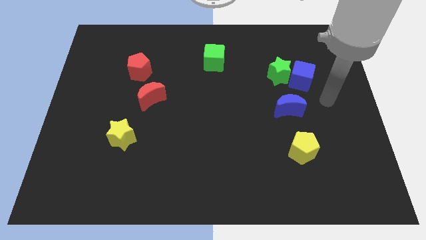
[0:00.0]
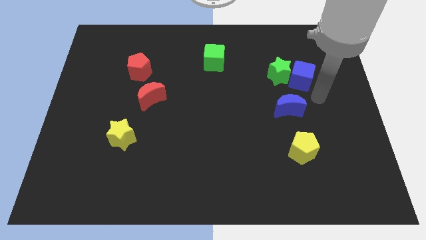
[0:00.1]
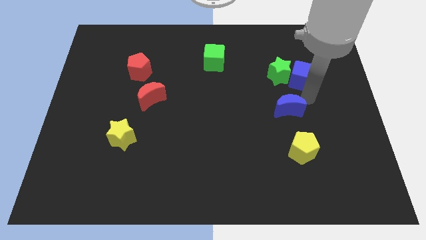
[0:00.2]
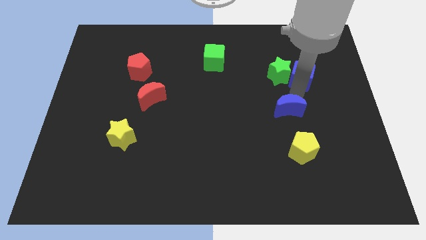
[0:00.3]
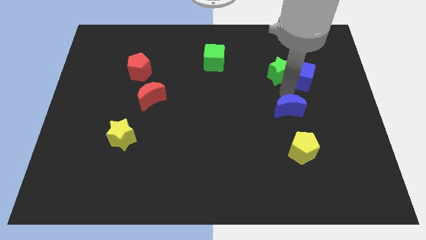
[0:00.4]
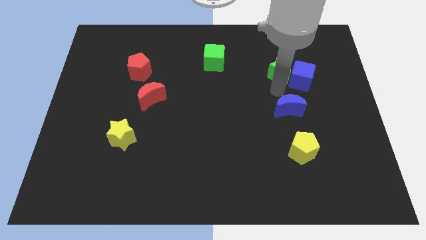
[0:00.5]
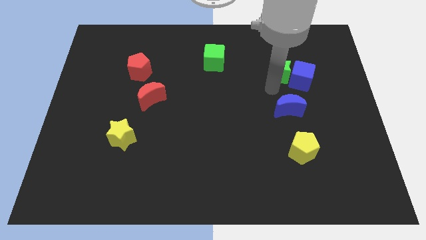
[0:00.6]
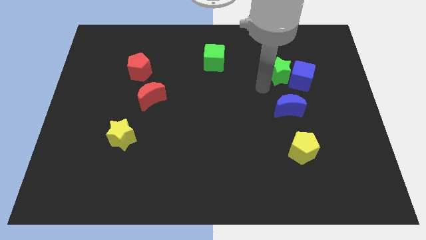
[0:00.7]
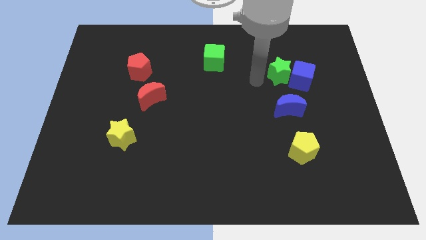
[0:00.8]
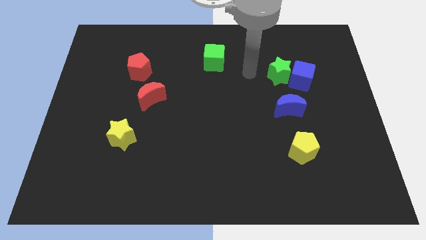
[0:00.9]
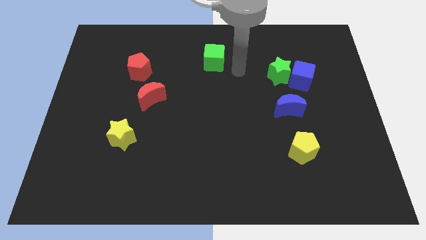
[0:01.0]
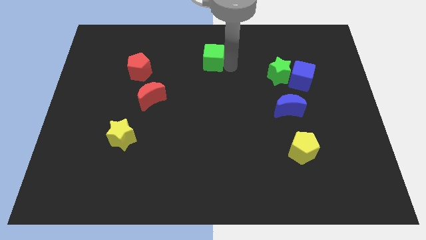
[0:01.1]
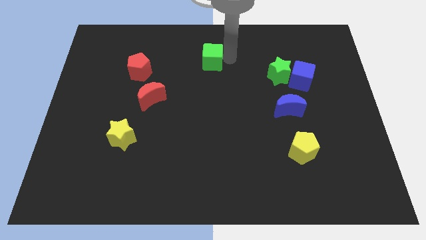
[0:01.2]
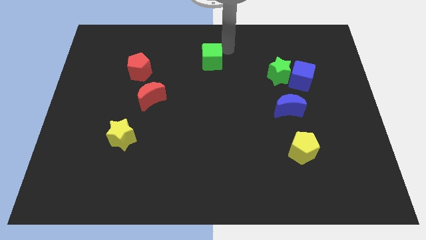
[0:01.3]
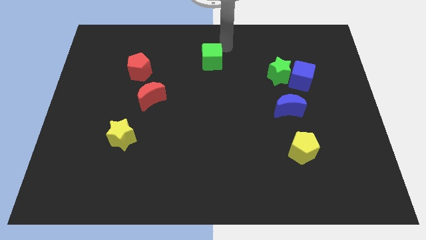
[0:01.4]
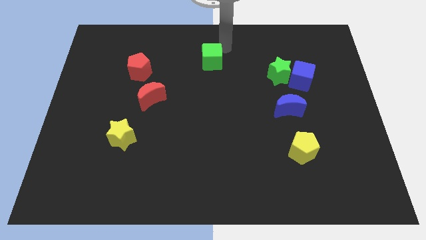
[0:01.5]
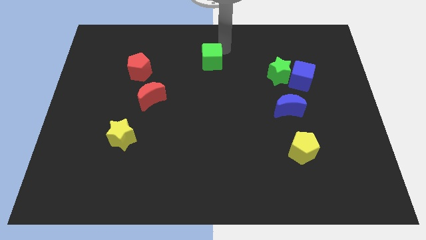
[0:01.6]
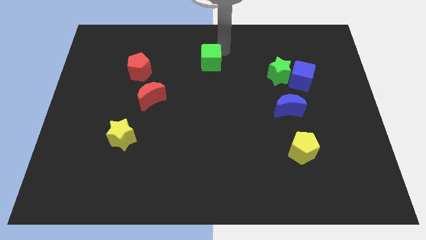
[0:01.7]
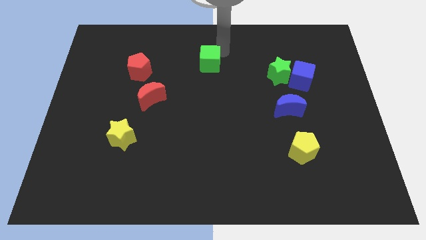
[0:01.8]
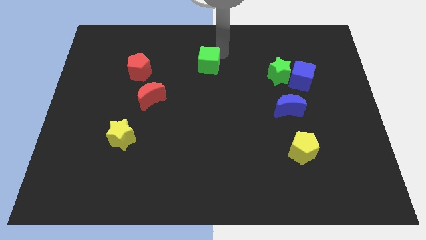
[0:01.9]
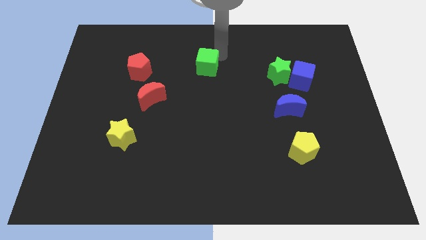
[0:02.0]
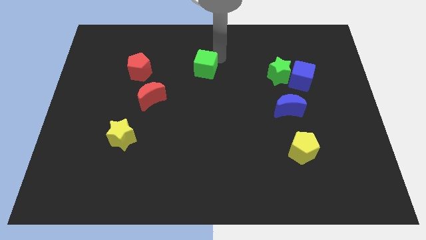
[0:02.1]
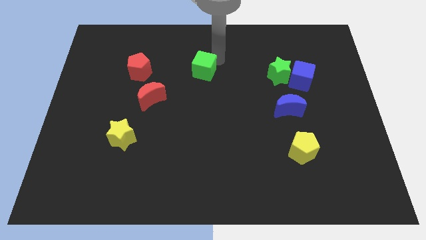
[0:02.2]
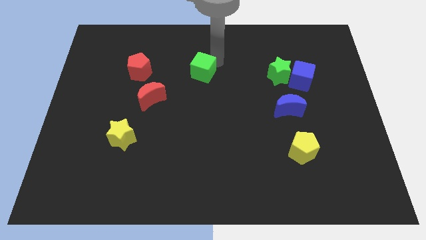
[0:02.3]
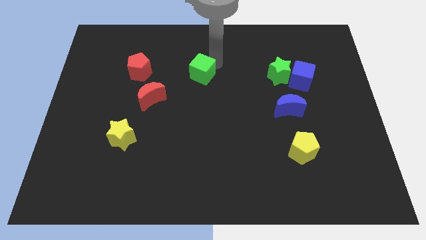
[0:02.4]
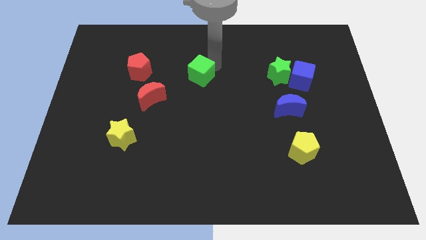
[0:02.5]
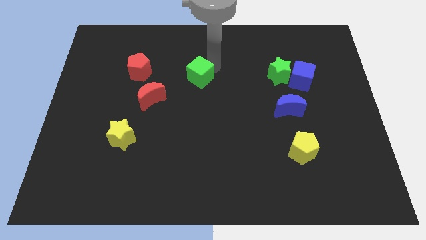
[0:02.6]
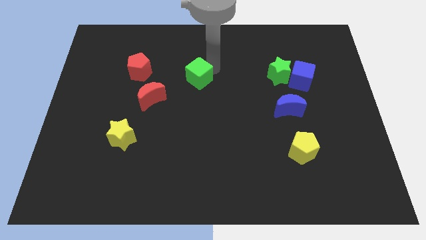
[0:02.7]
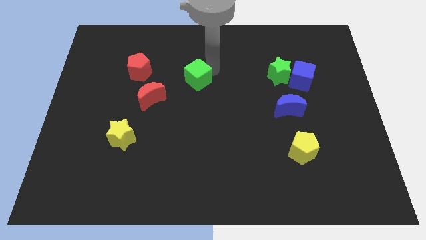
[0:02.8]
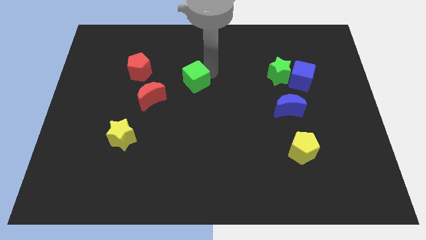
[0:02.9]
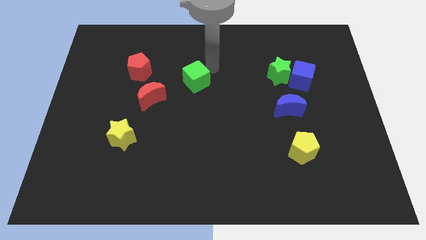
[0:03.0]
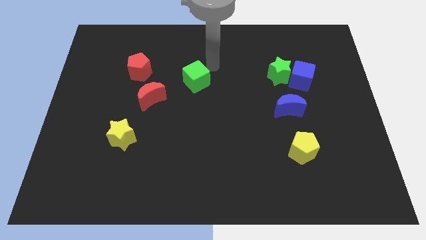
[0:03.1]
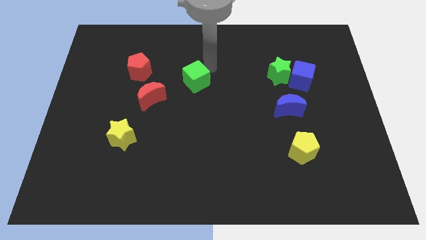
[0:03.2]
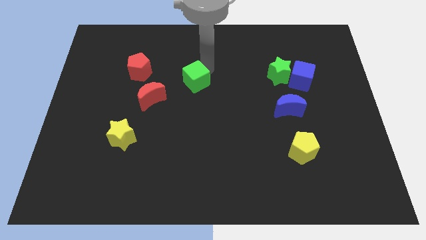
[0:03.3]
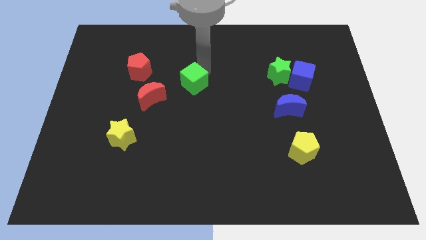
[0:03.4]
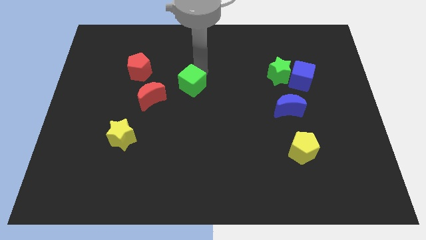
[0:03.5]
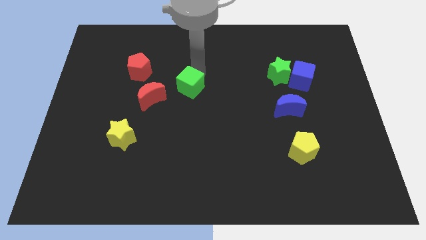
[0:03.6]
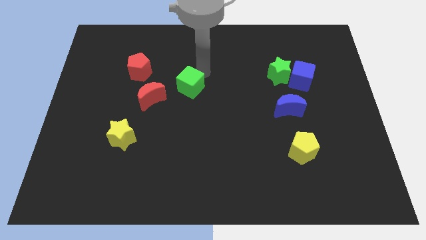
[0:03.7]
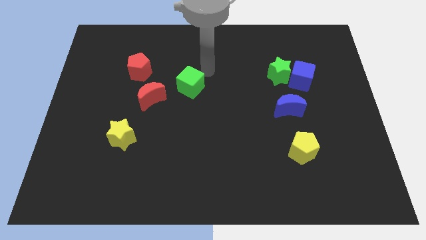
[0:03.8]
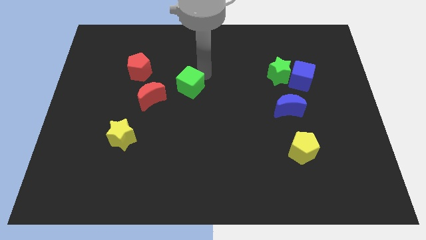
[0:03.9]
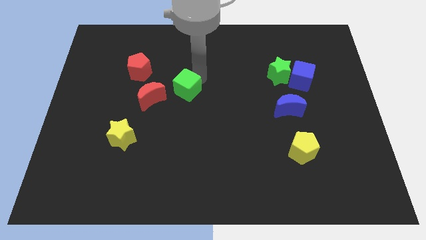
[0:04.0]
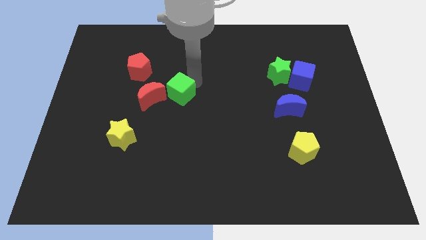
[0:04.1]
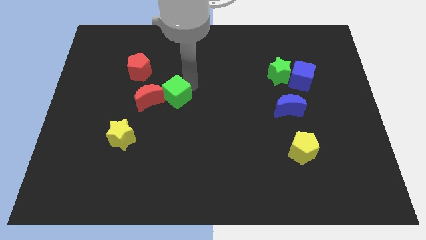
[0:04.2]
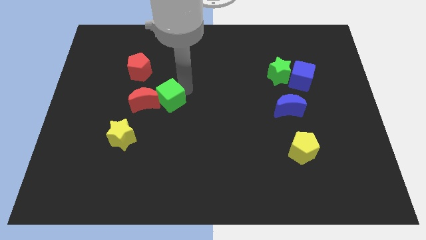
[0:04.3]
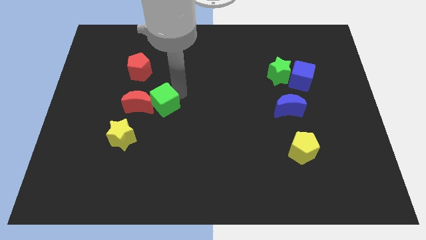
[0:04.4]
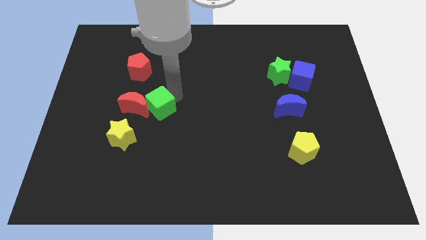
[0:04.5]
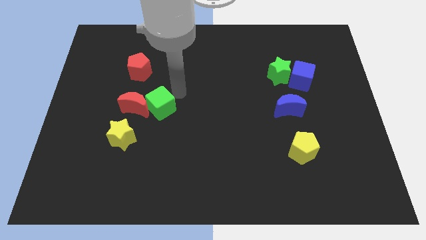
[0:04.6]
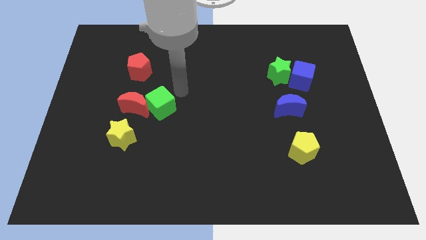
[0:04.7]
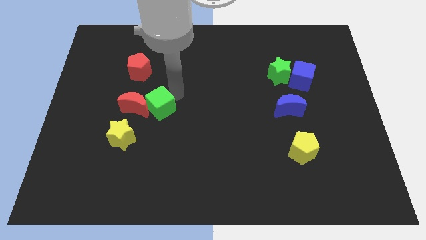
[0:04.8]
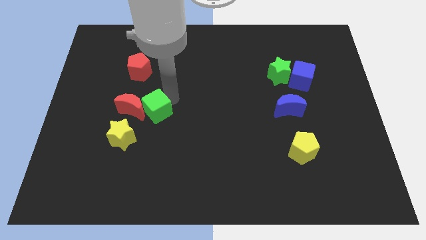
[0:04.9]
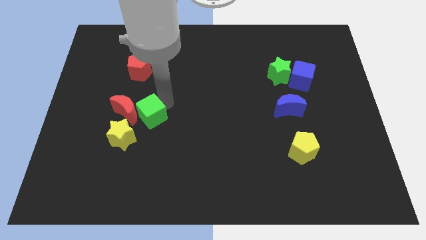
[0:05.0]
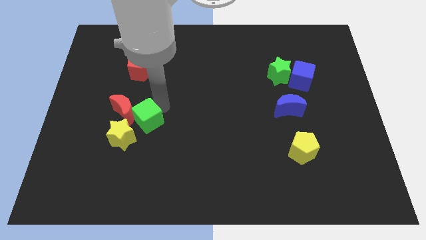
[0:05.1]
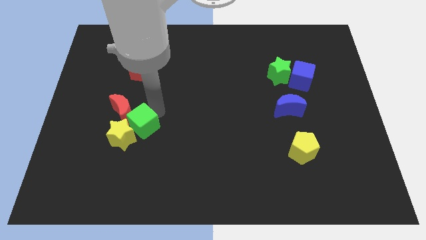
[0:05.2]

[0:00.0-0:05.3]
push the green cube close to the yellow star

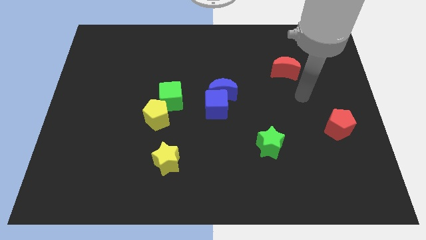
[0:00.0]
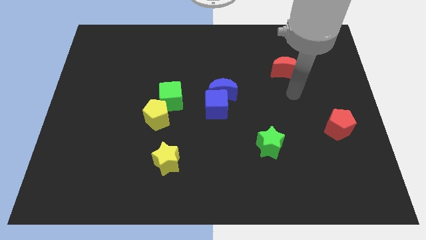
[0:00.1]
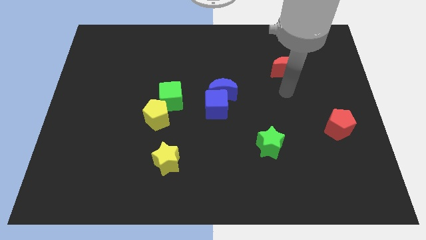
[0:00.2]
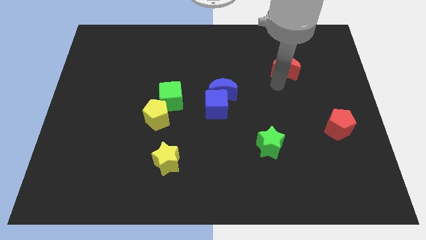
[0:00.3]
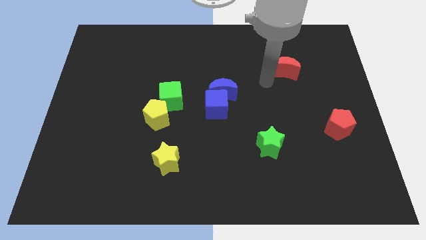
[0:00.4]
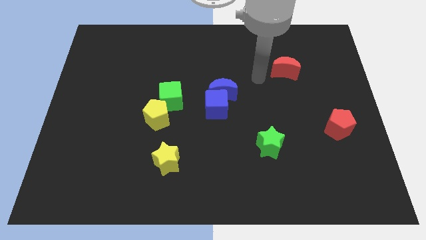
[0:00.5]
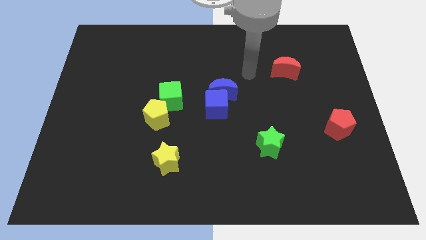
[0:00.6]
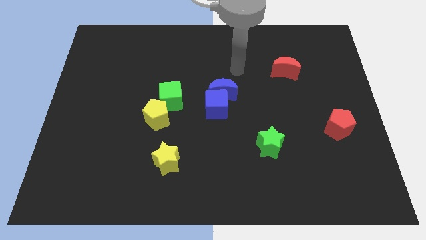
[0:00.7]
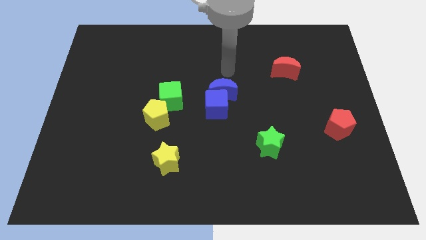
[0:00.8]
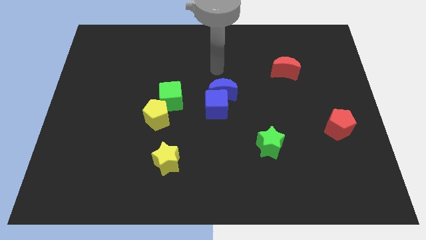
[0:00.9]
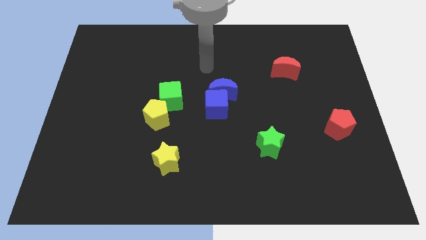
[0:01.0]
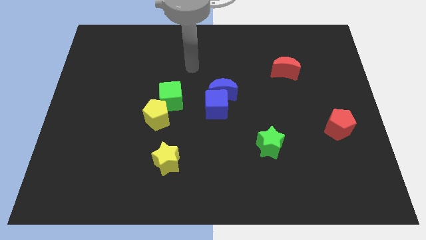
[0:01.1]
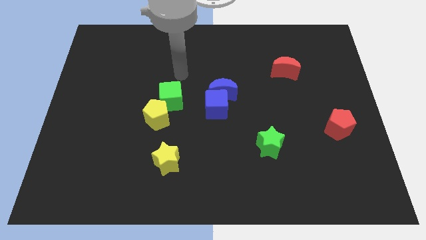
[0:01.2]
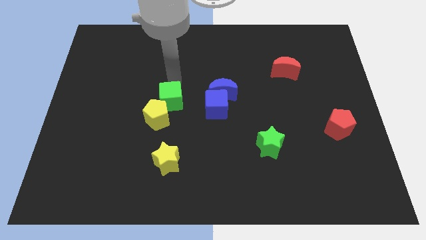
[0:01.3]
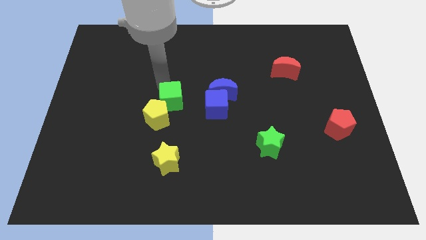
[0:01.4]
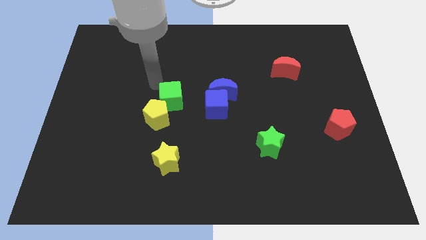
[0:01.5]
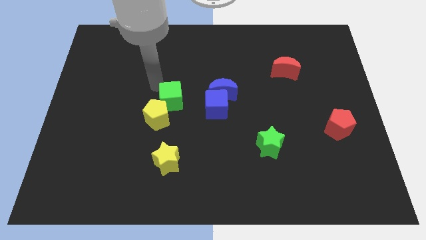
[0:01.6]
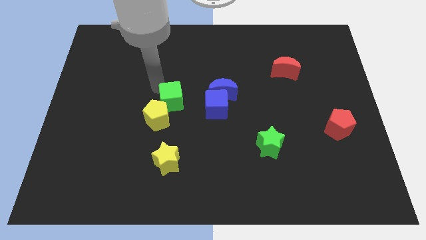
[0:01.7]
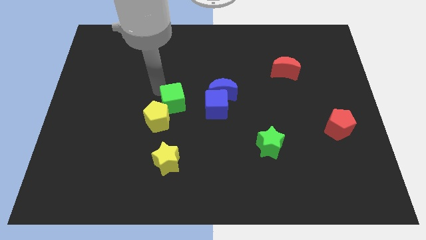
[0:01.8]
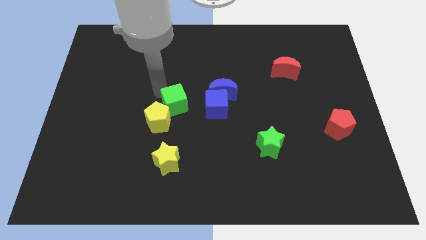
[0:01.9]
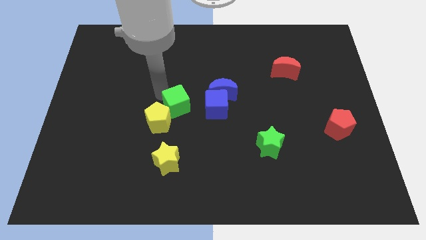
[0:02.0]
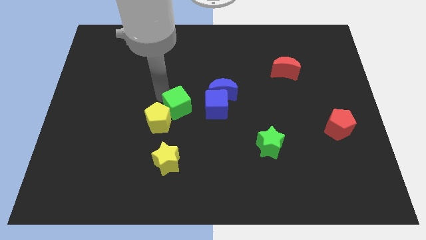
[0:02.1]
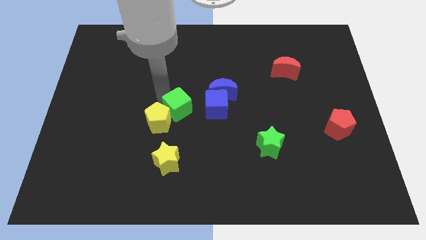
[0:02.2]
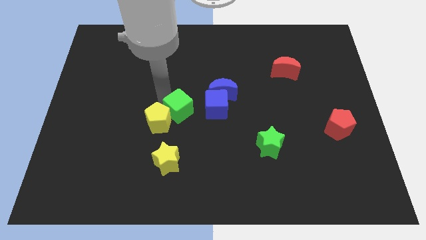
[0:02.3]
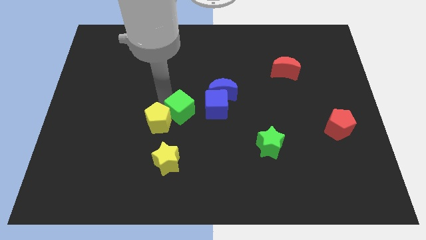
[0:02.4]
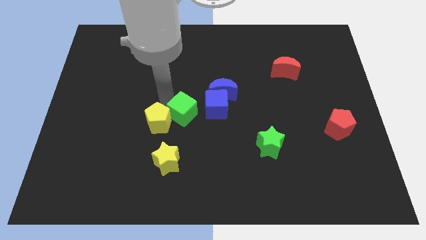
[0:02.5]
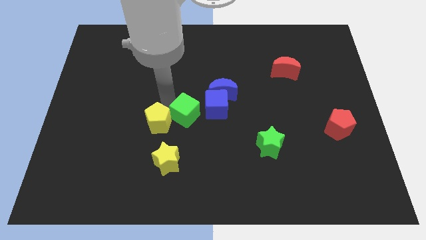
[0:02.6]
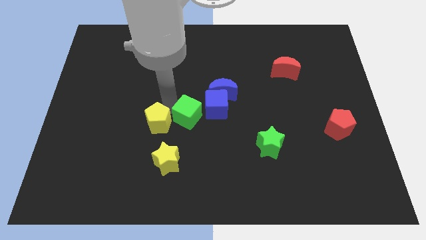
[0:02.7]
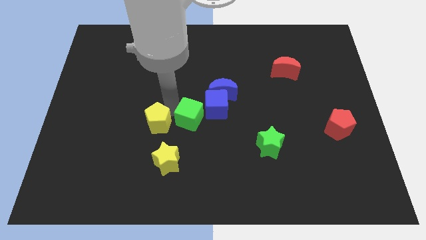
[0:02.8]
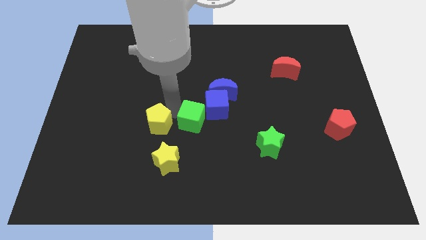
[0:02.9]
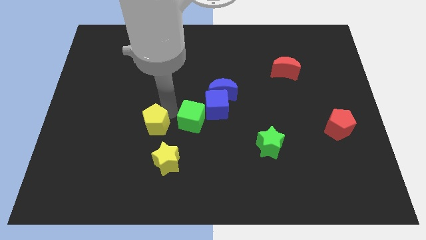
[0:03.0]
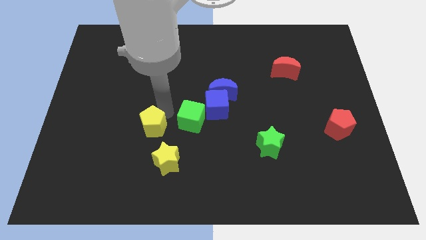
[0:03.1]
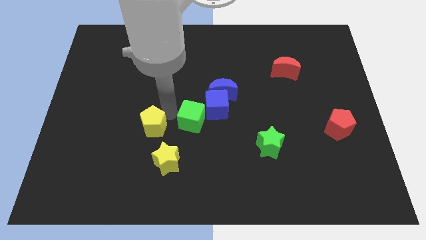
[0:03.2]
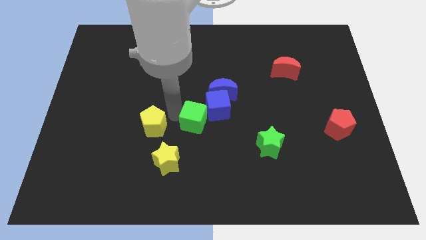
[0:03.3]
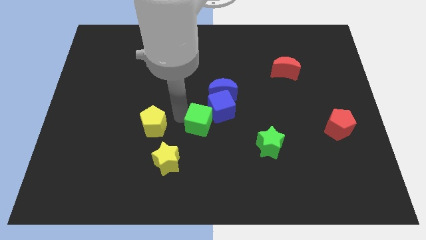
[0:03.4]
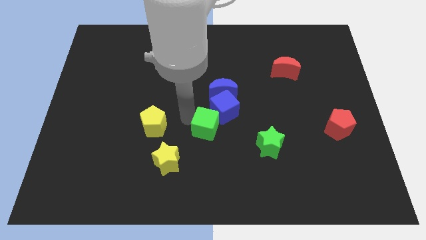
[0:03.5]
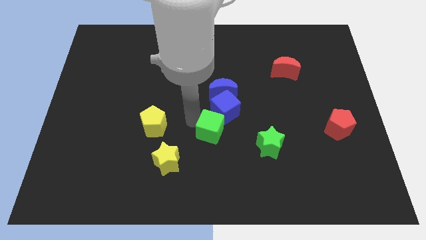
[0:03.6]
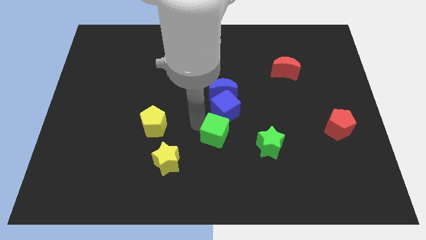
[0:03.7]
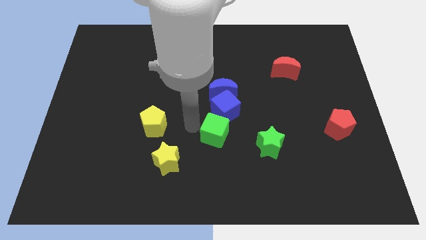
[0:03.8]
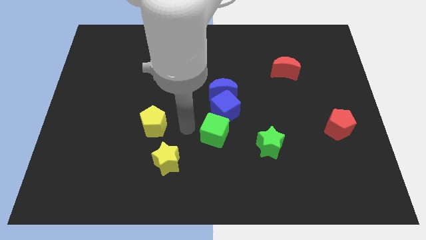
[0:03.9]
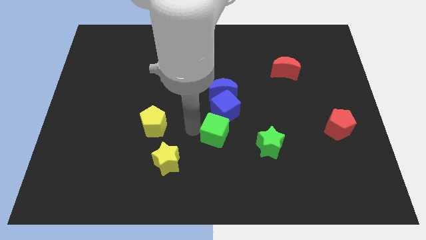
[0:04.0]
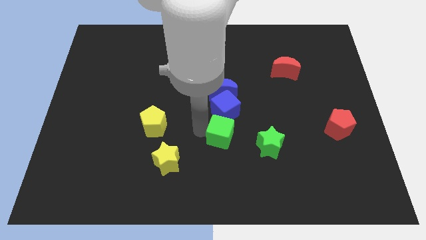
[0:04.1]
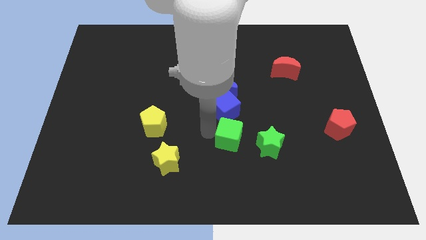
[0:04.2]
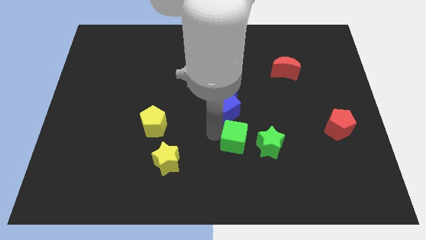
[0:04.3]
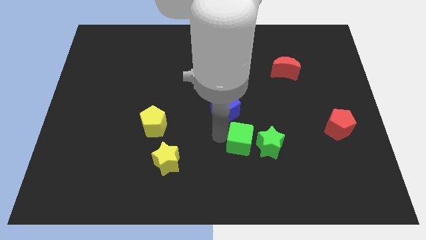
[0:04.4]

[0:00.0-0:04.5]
move the green cube towards the green star
